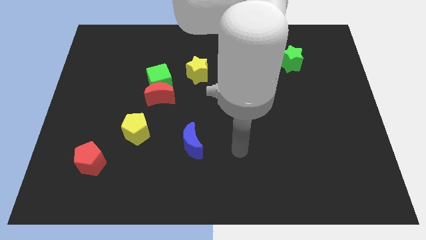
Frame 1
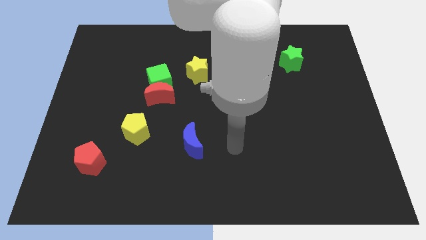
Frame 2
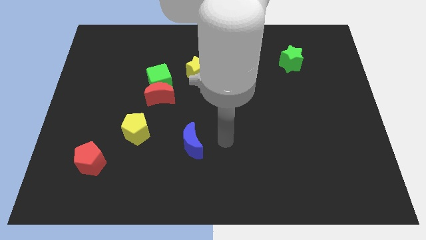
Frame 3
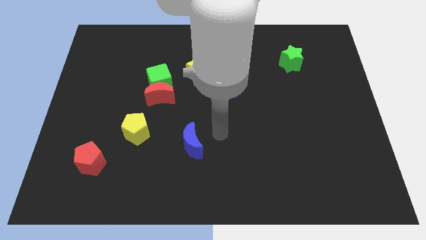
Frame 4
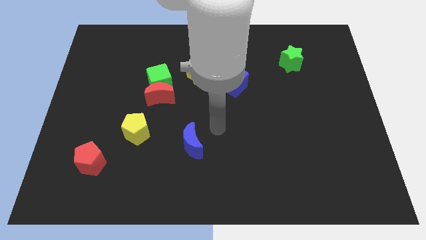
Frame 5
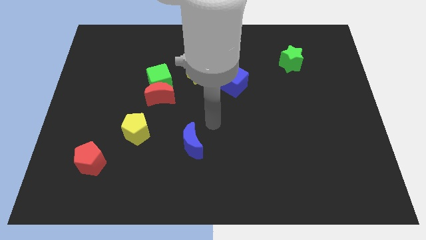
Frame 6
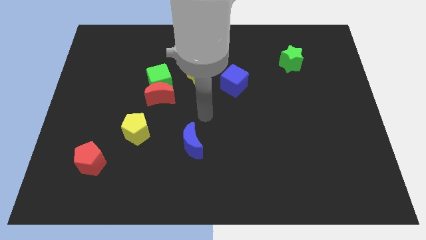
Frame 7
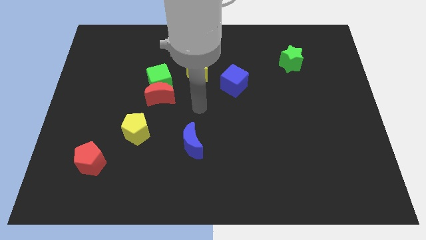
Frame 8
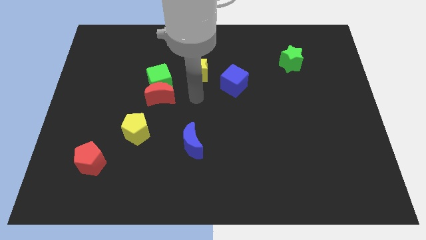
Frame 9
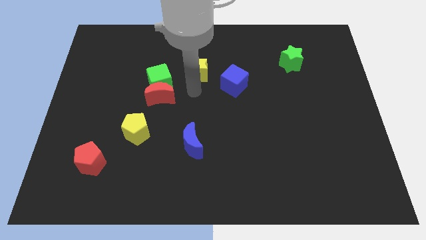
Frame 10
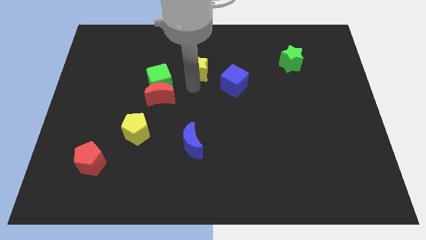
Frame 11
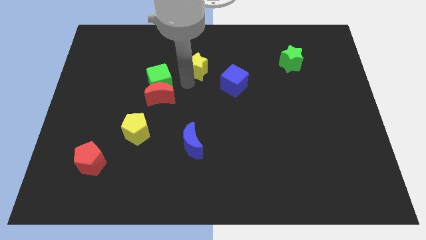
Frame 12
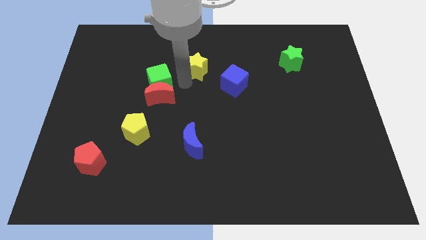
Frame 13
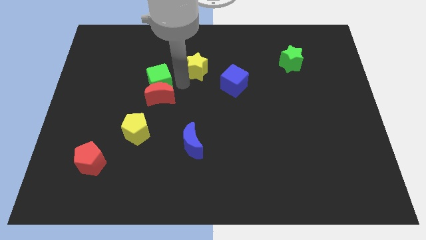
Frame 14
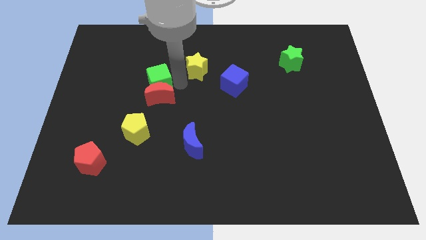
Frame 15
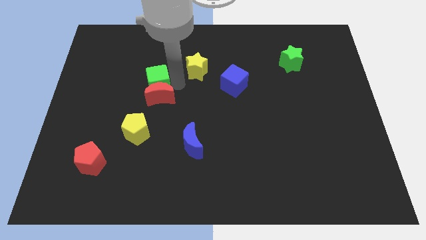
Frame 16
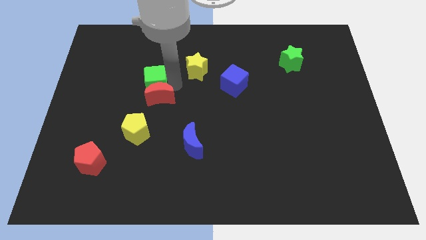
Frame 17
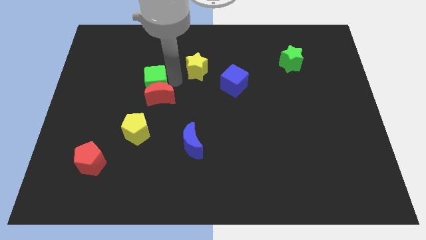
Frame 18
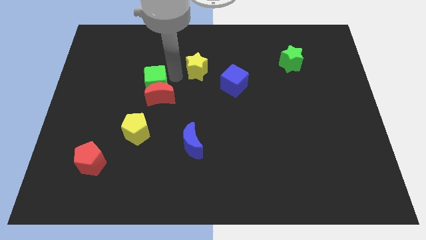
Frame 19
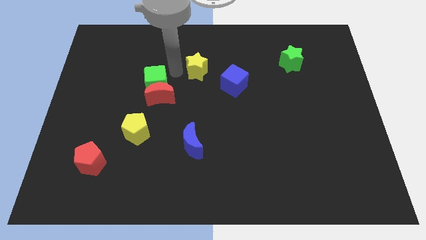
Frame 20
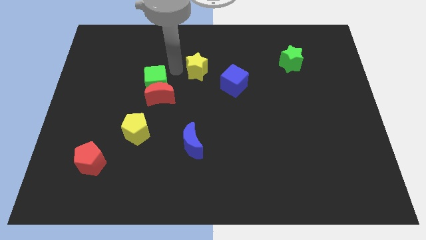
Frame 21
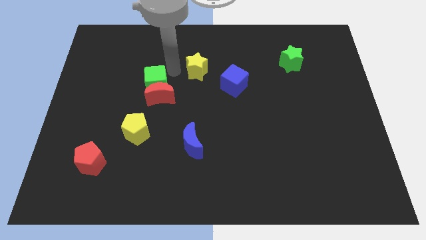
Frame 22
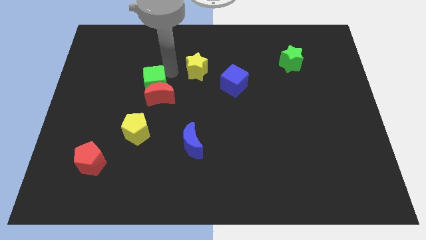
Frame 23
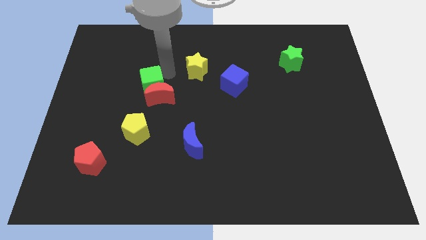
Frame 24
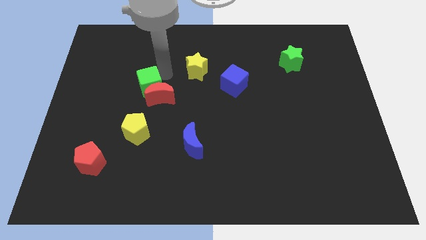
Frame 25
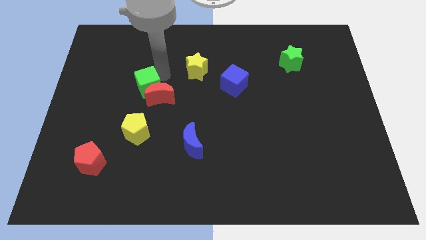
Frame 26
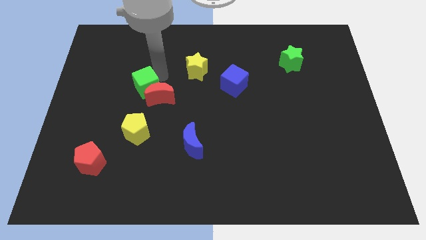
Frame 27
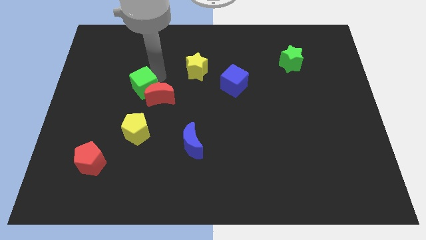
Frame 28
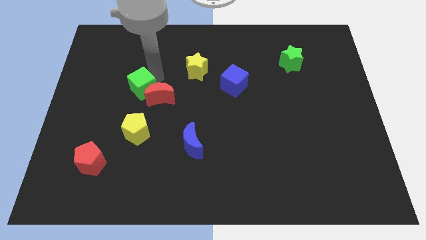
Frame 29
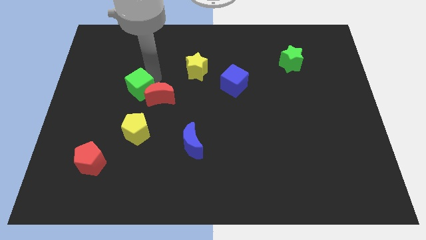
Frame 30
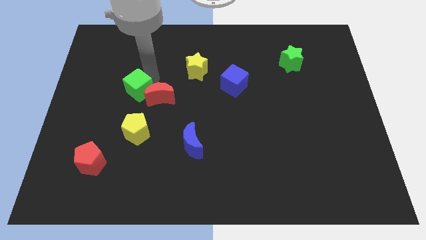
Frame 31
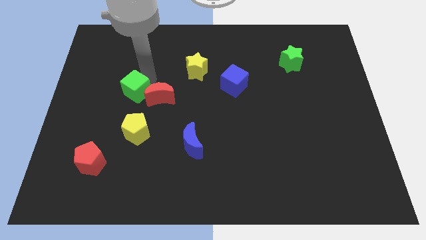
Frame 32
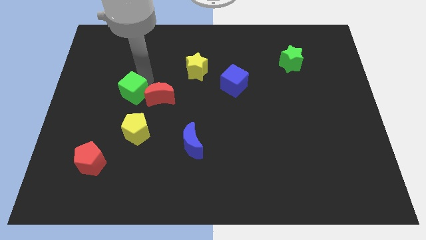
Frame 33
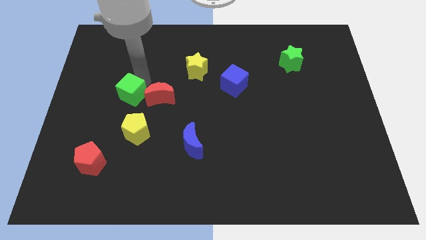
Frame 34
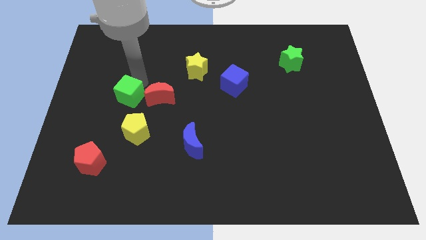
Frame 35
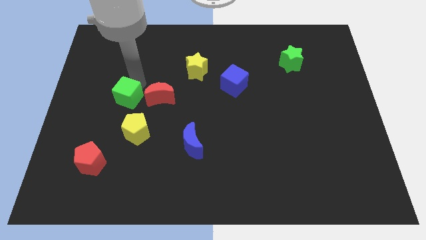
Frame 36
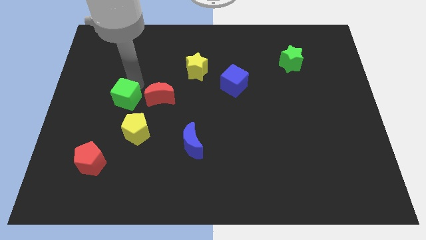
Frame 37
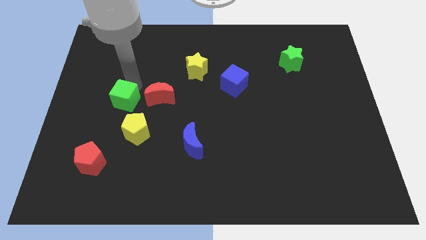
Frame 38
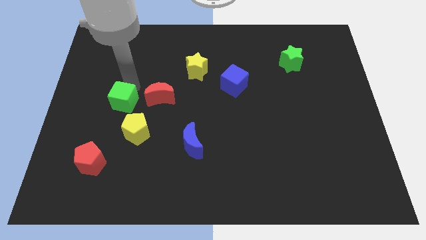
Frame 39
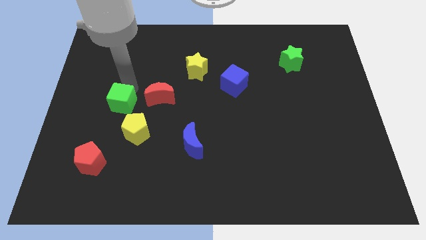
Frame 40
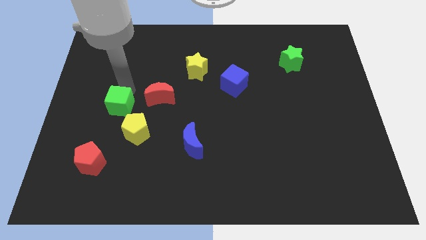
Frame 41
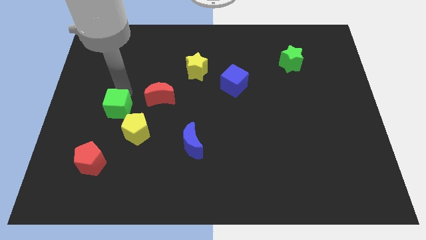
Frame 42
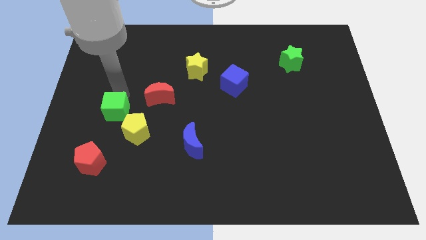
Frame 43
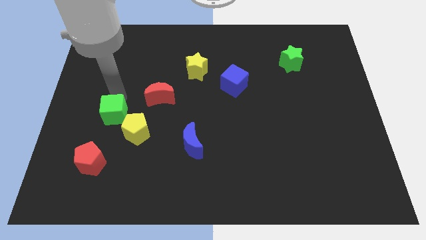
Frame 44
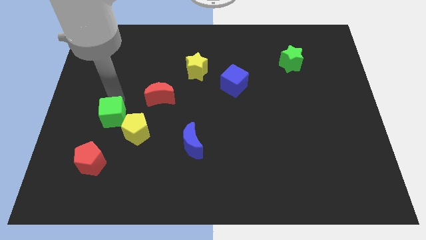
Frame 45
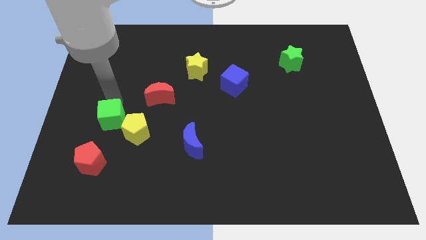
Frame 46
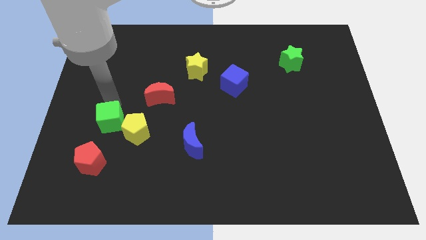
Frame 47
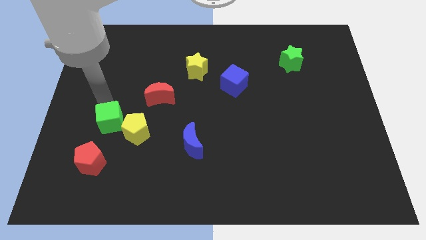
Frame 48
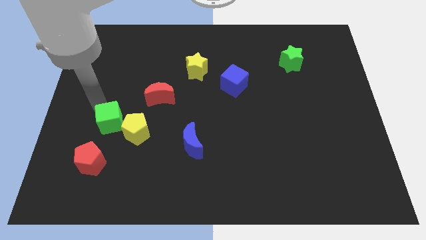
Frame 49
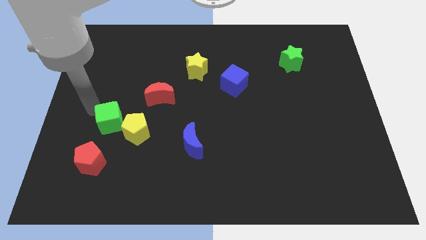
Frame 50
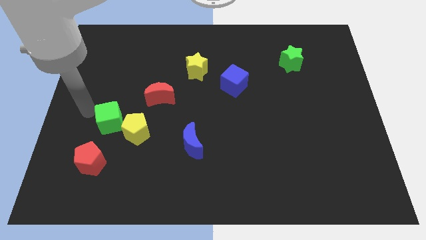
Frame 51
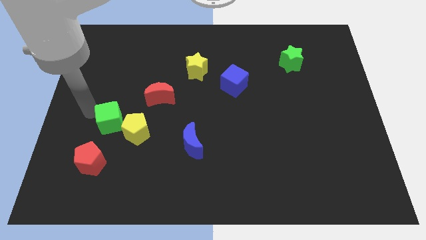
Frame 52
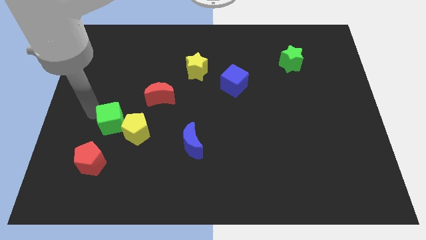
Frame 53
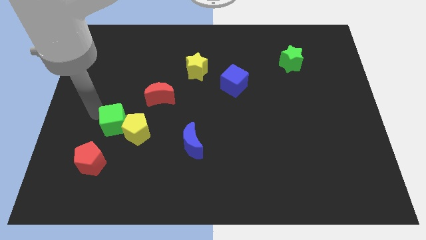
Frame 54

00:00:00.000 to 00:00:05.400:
put the green cube to the yellow pentagon

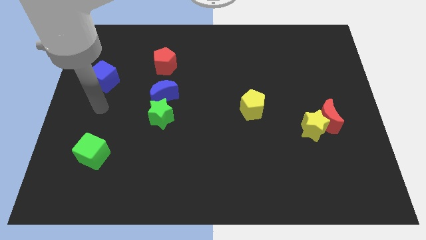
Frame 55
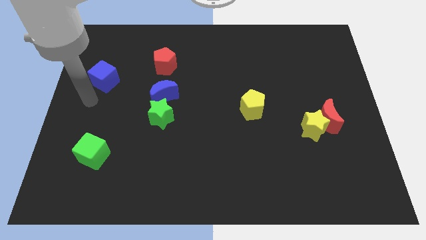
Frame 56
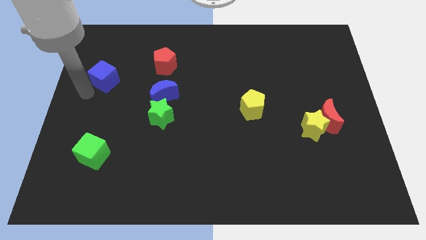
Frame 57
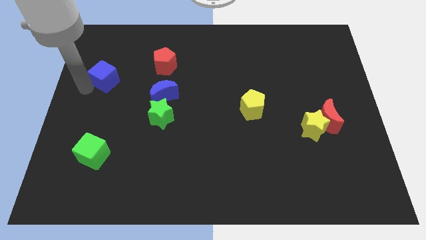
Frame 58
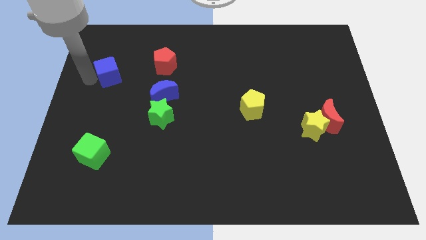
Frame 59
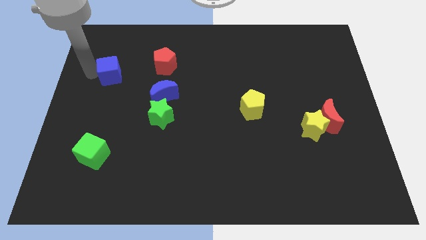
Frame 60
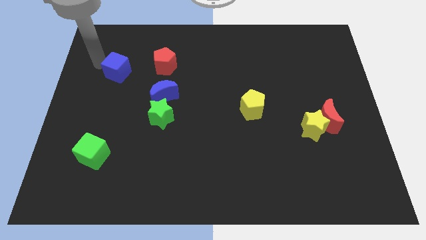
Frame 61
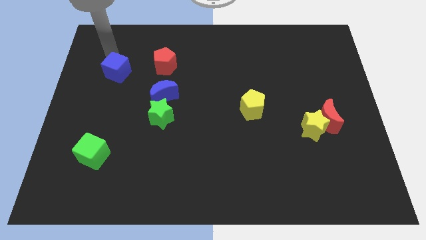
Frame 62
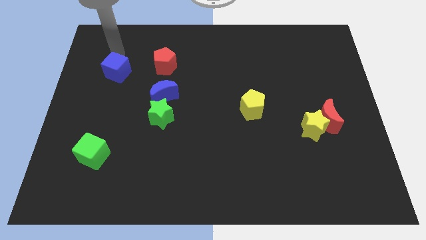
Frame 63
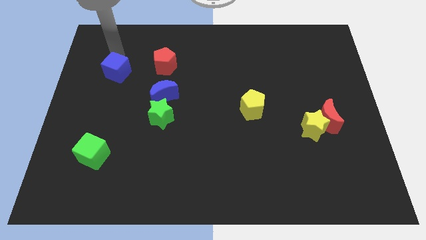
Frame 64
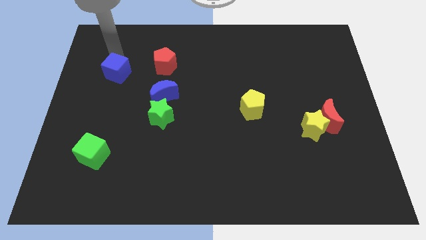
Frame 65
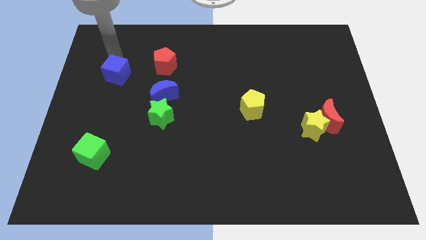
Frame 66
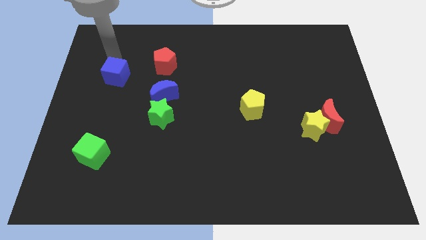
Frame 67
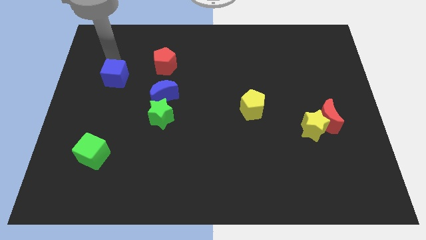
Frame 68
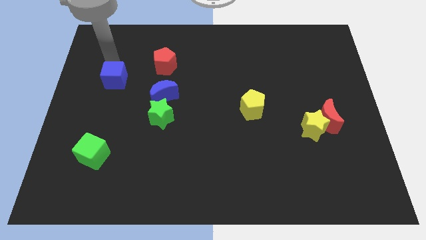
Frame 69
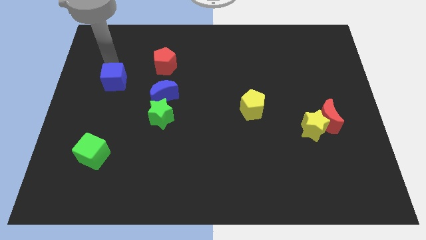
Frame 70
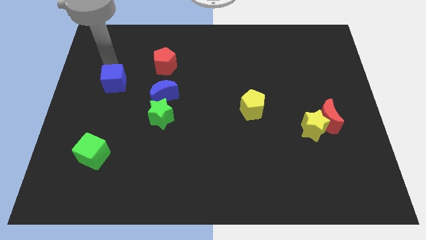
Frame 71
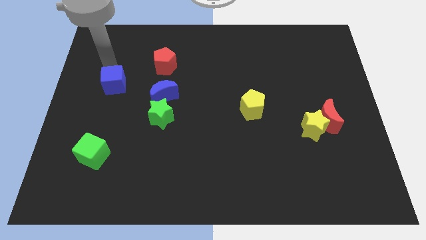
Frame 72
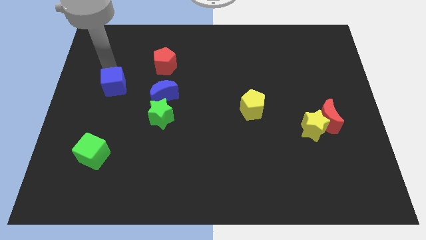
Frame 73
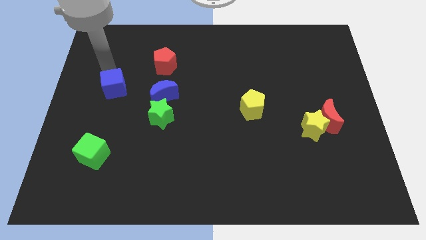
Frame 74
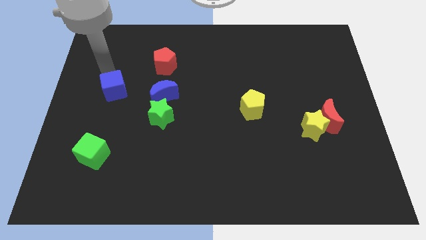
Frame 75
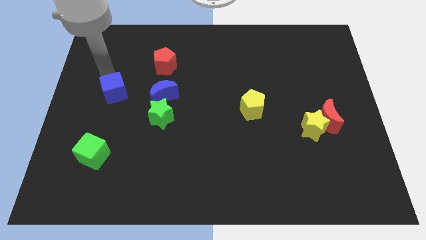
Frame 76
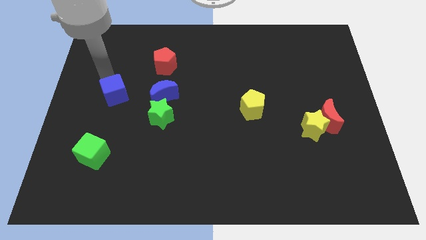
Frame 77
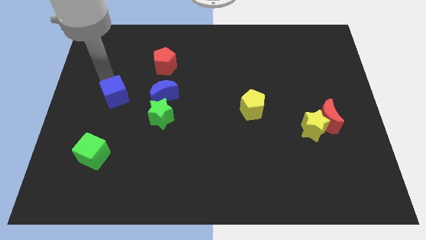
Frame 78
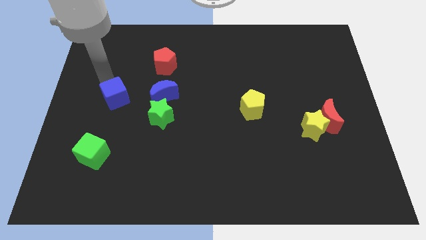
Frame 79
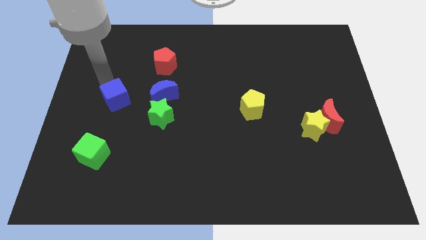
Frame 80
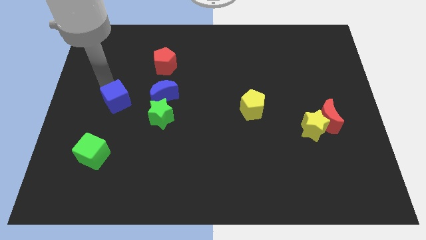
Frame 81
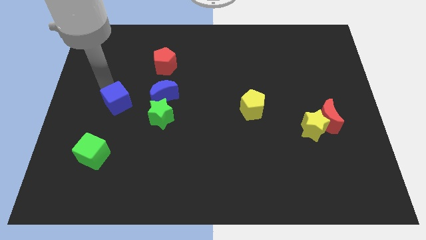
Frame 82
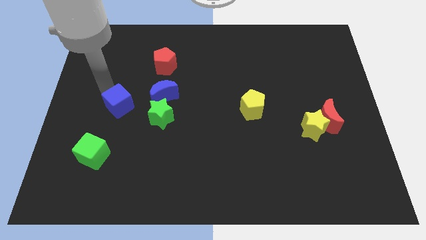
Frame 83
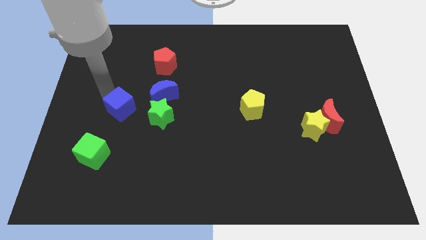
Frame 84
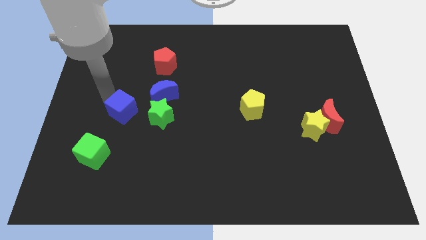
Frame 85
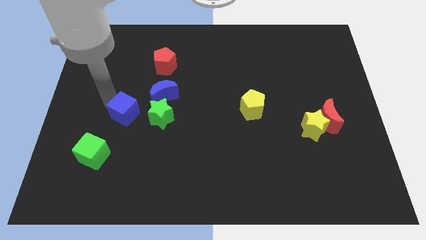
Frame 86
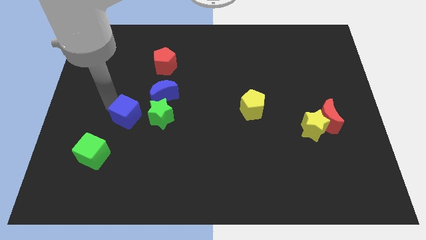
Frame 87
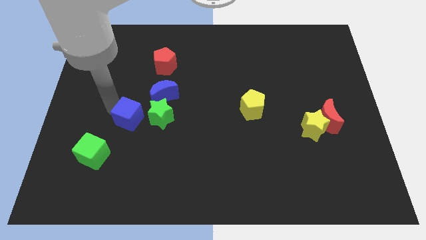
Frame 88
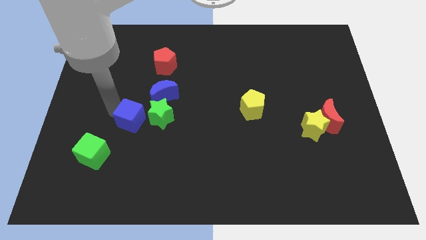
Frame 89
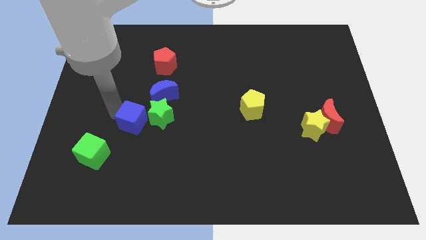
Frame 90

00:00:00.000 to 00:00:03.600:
move the blue cube close to the green star
